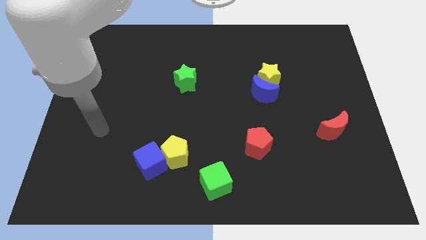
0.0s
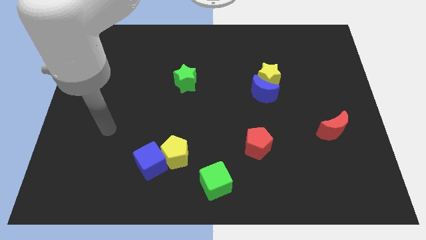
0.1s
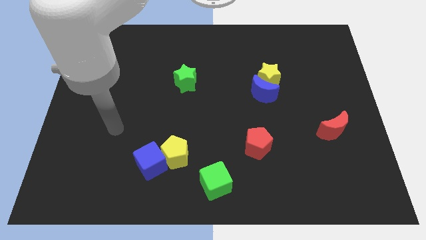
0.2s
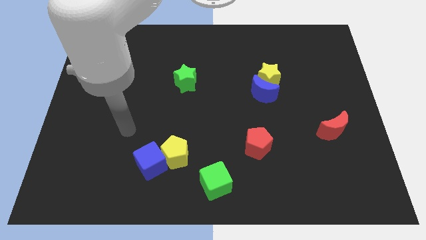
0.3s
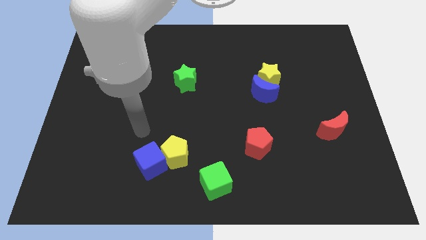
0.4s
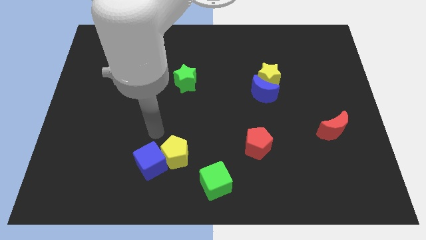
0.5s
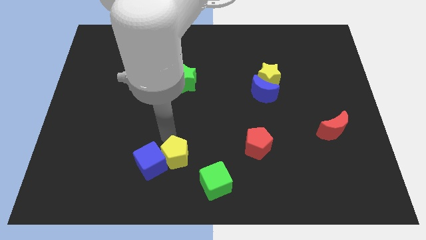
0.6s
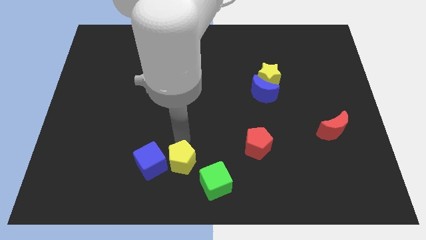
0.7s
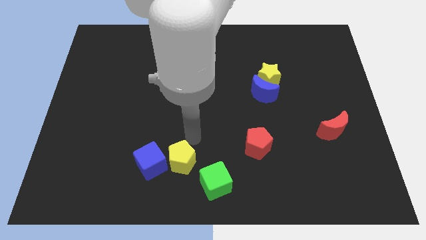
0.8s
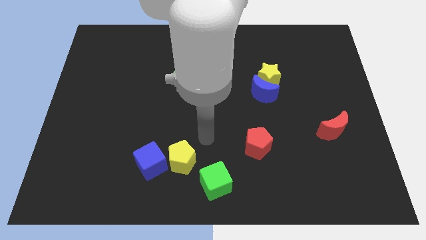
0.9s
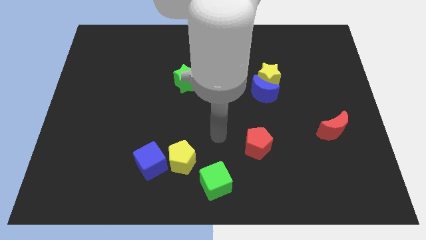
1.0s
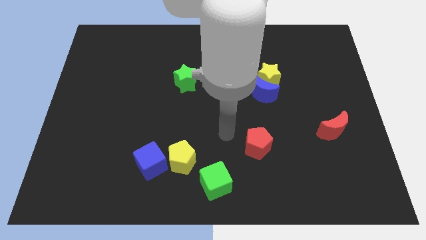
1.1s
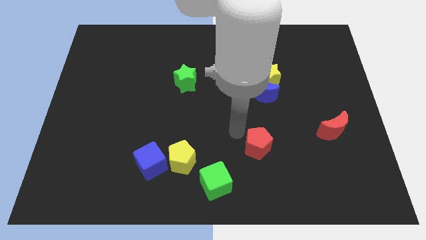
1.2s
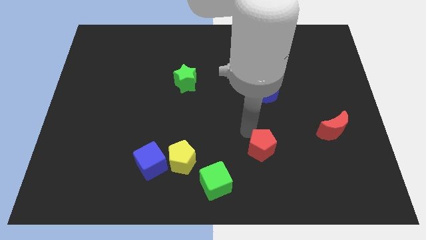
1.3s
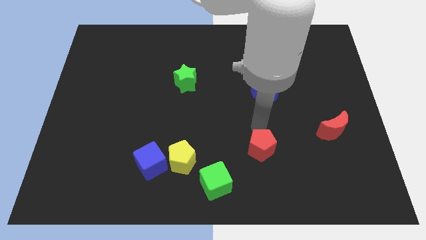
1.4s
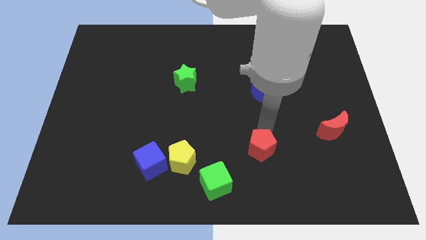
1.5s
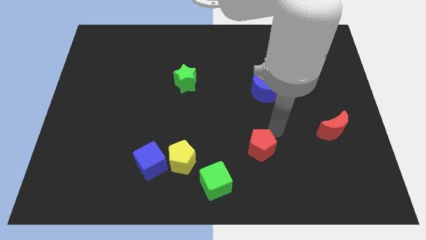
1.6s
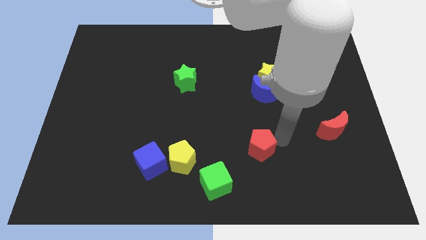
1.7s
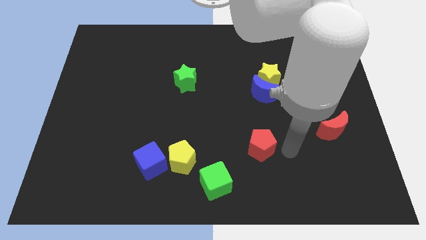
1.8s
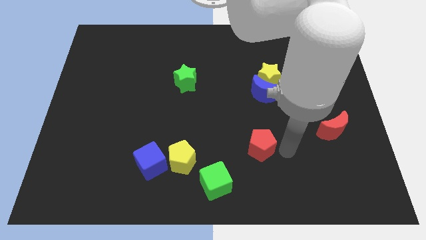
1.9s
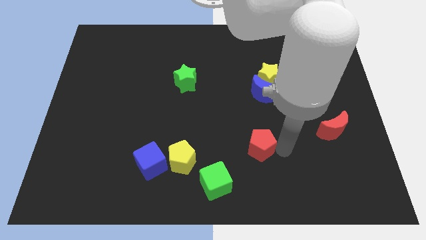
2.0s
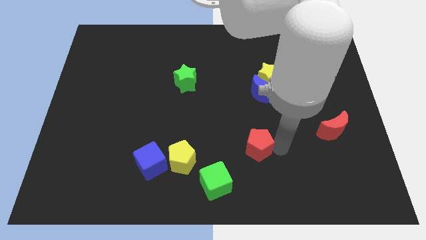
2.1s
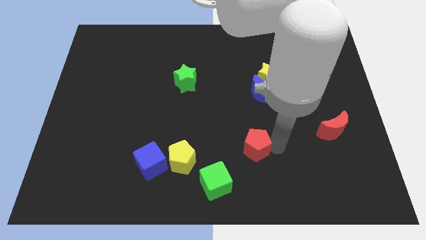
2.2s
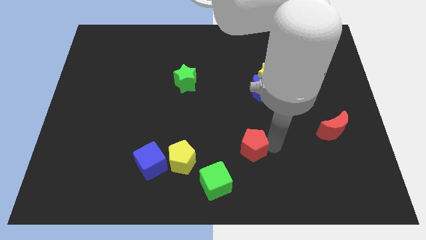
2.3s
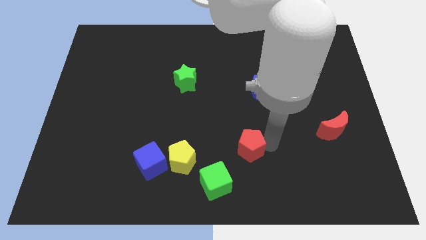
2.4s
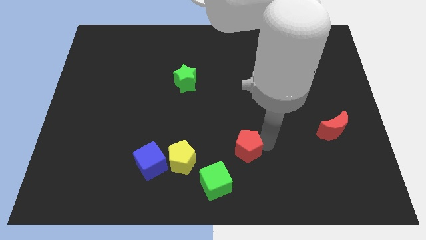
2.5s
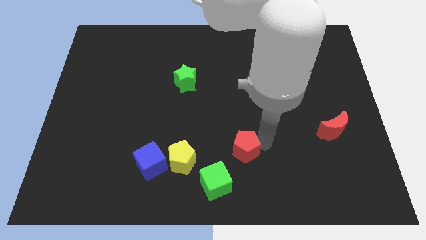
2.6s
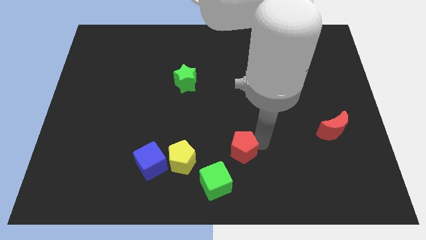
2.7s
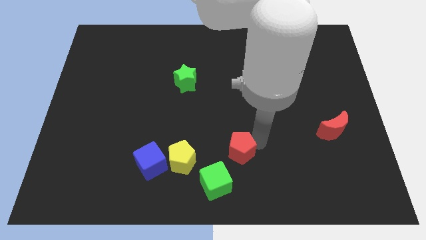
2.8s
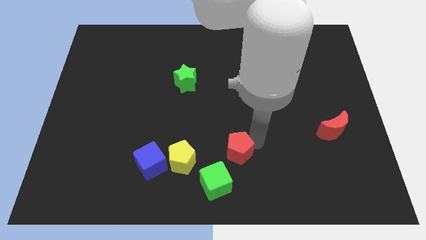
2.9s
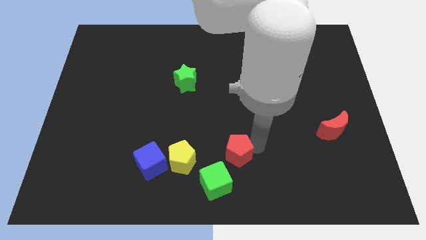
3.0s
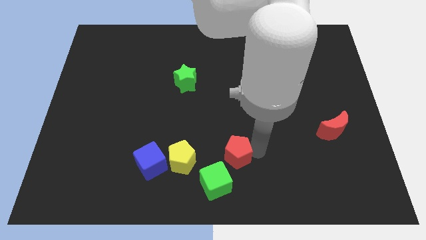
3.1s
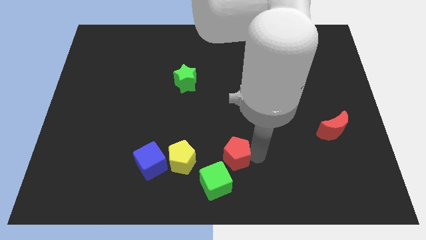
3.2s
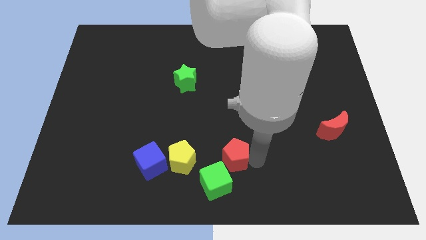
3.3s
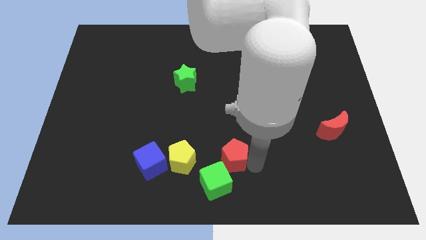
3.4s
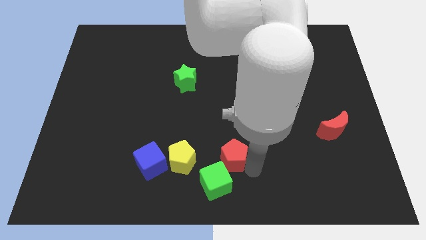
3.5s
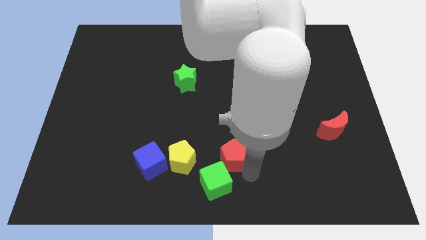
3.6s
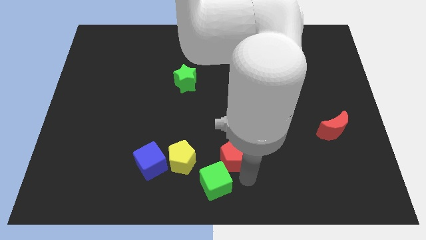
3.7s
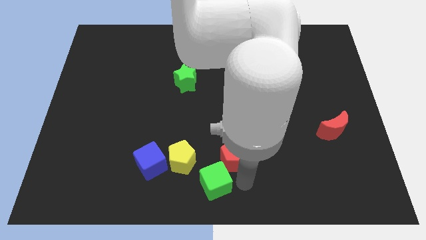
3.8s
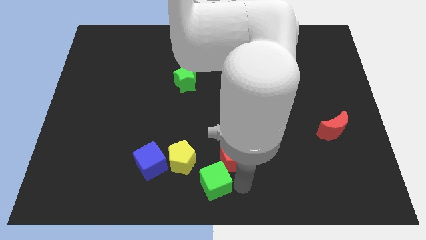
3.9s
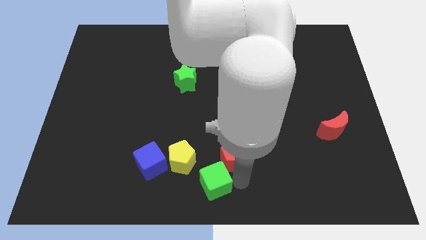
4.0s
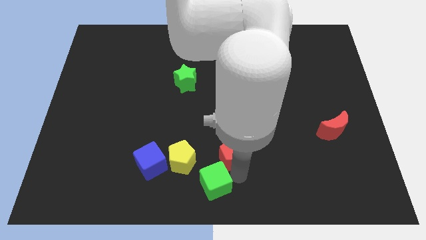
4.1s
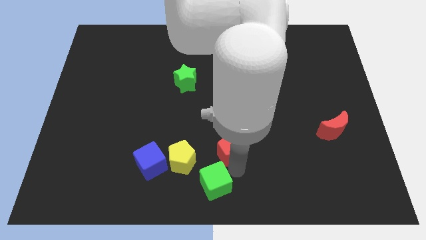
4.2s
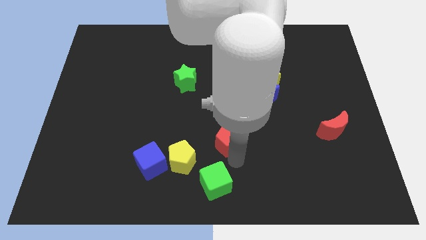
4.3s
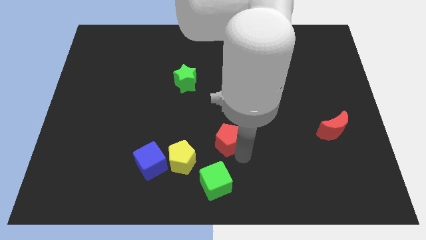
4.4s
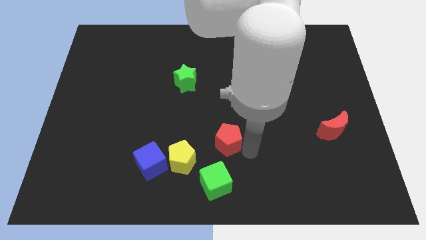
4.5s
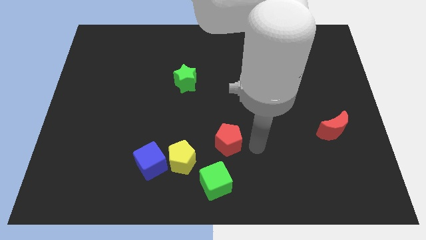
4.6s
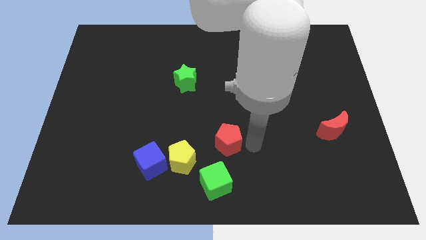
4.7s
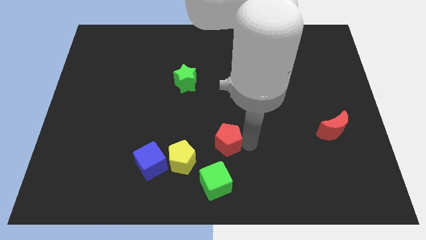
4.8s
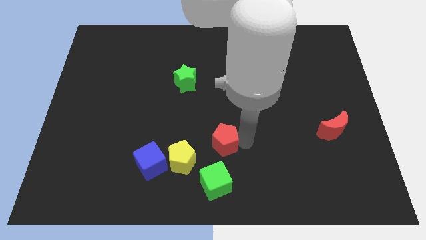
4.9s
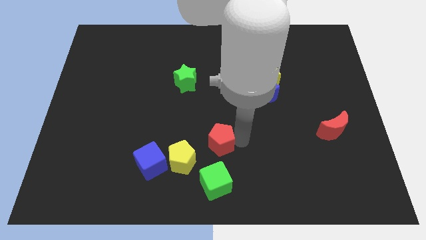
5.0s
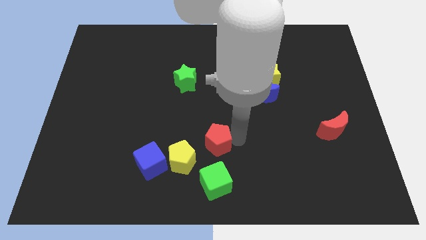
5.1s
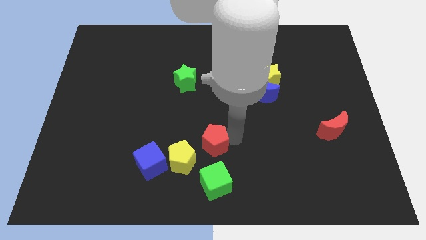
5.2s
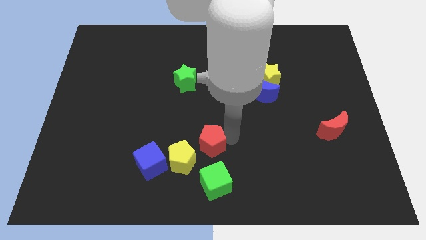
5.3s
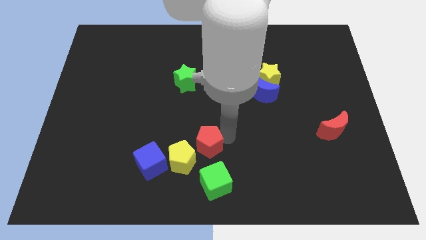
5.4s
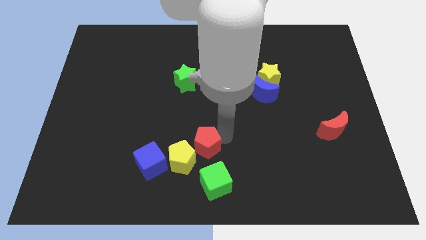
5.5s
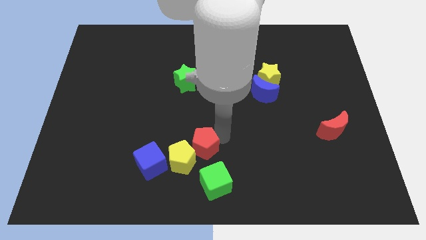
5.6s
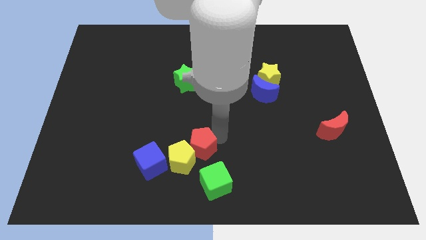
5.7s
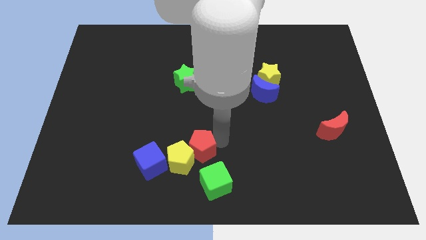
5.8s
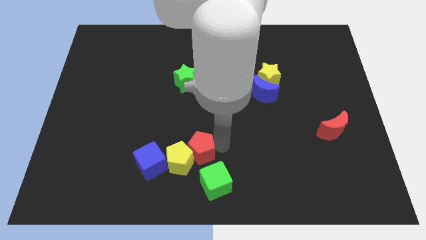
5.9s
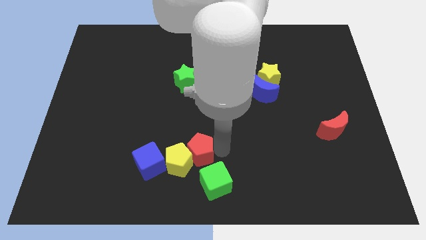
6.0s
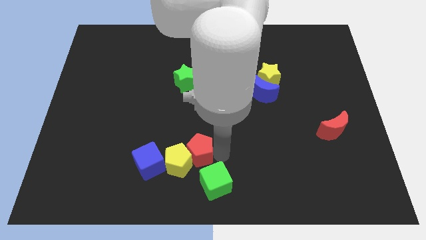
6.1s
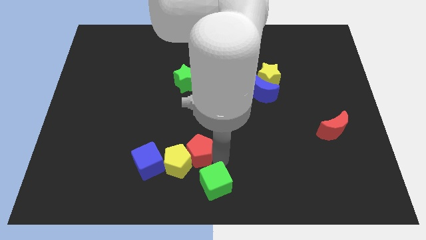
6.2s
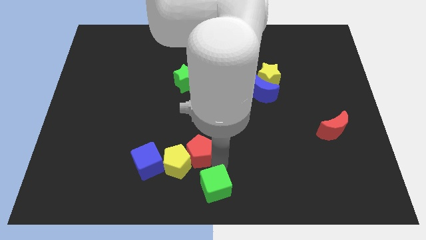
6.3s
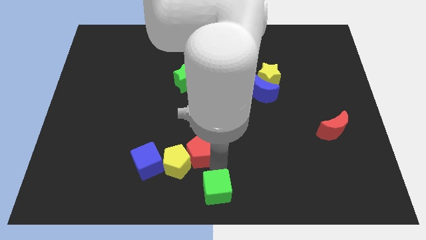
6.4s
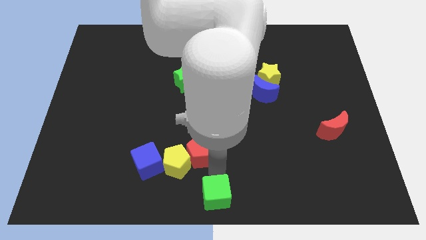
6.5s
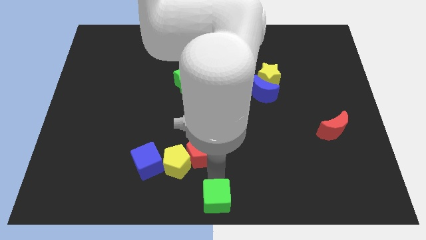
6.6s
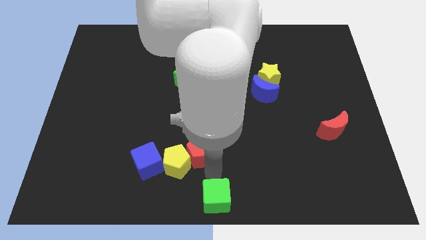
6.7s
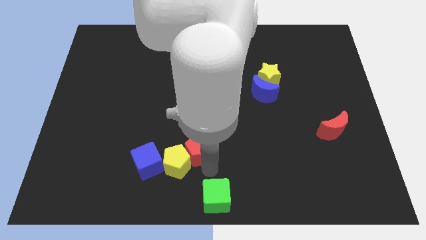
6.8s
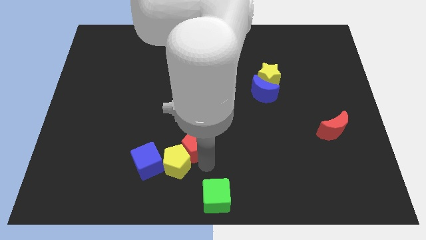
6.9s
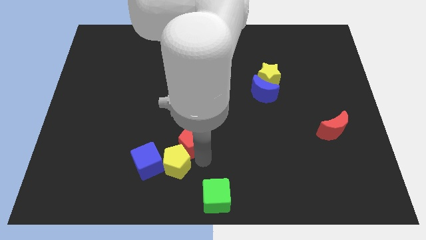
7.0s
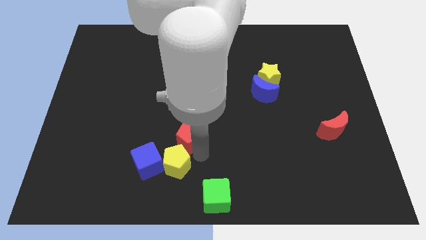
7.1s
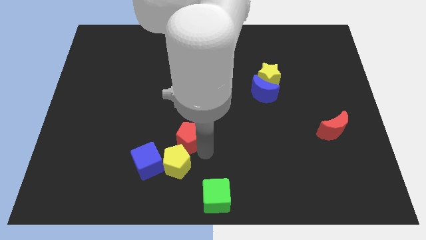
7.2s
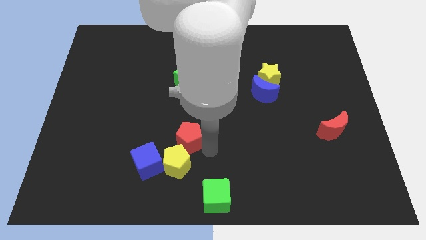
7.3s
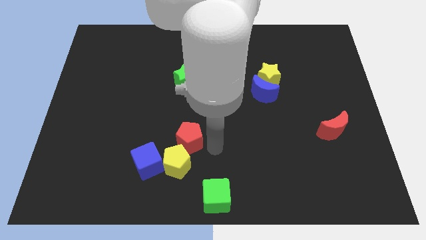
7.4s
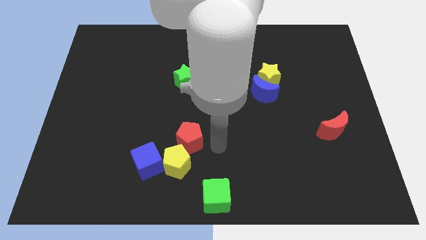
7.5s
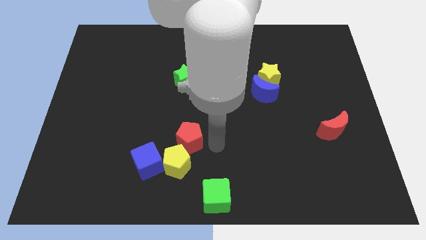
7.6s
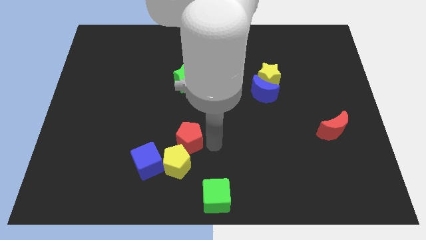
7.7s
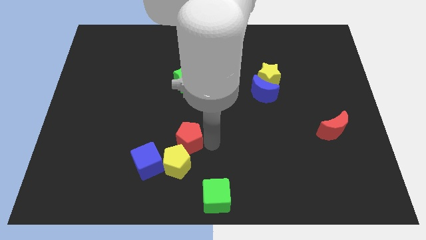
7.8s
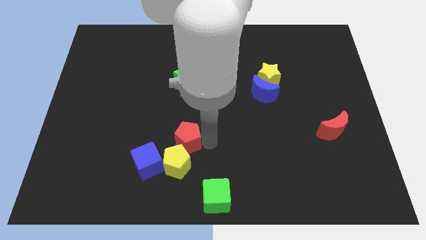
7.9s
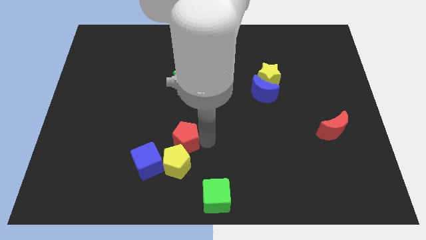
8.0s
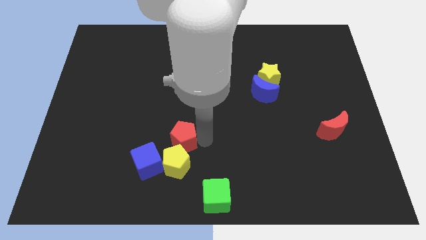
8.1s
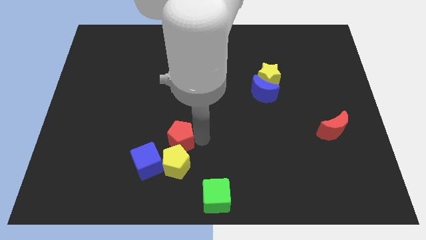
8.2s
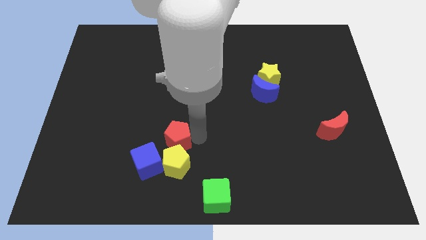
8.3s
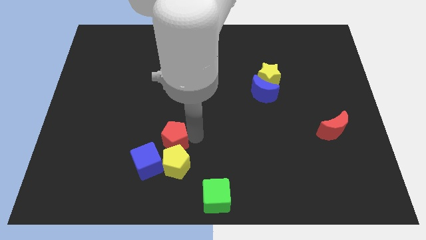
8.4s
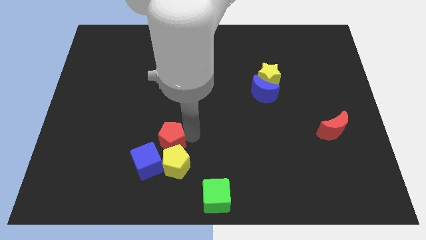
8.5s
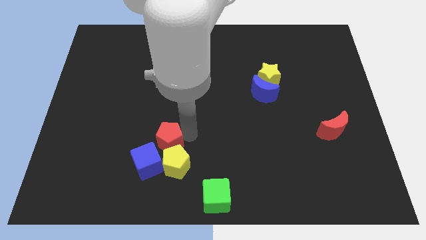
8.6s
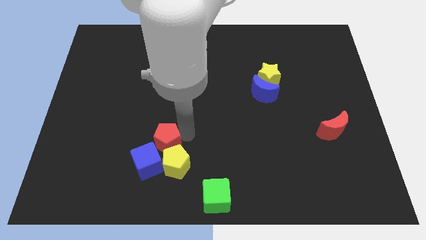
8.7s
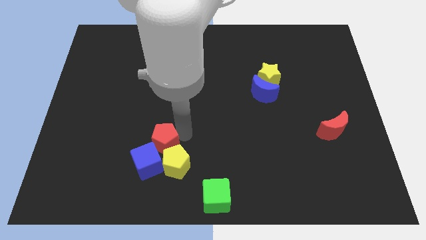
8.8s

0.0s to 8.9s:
move the red pentagon to the left
